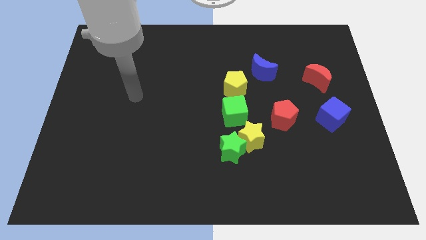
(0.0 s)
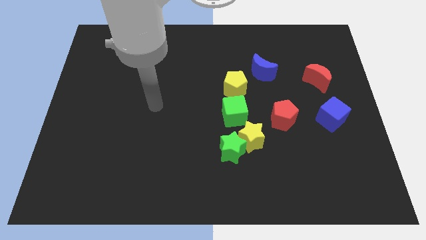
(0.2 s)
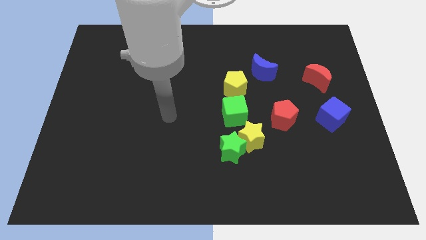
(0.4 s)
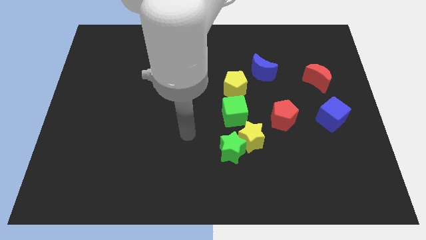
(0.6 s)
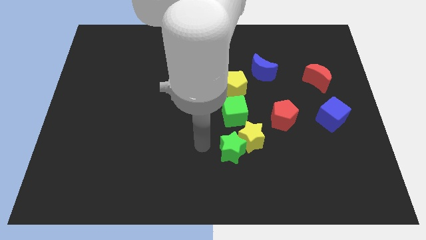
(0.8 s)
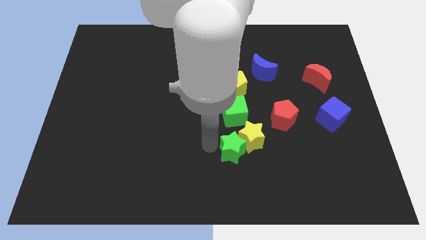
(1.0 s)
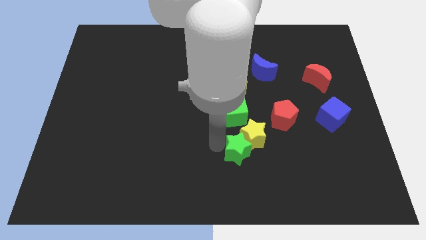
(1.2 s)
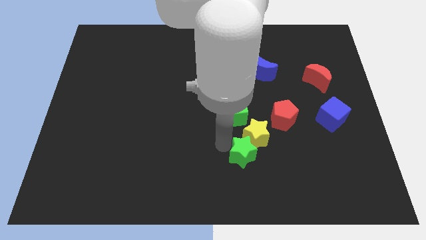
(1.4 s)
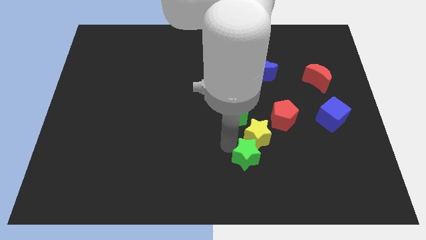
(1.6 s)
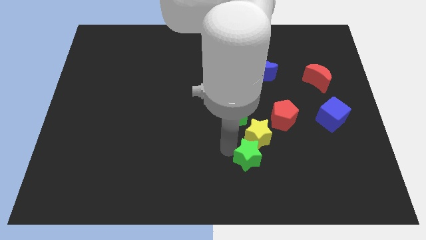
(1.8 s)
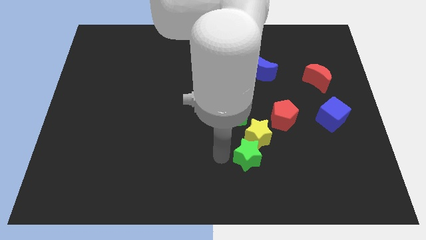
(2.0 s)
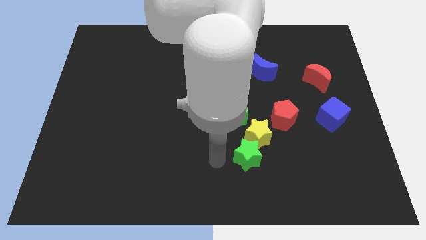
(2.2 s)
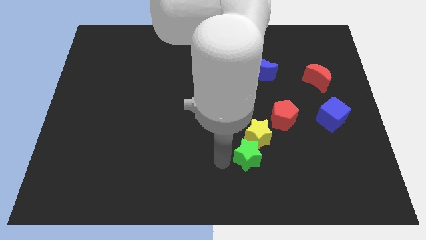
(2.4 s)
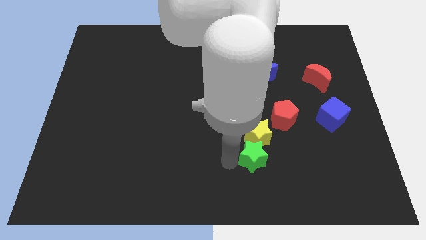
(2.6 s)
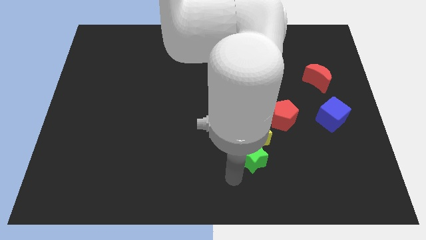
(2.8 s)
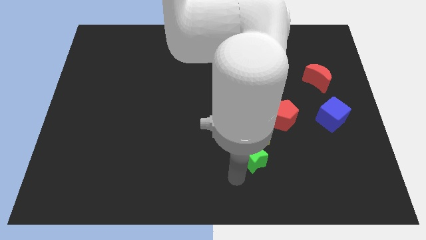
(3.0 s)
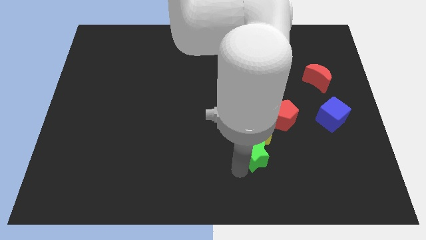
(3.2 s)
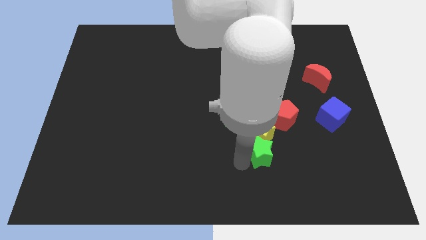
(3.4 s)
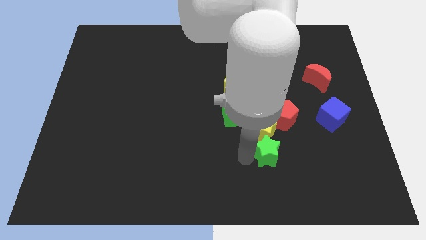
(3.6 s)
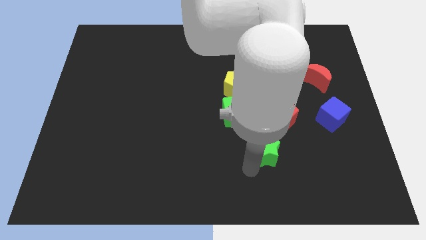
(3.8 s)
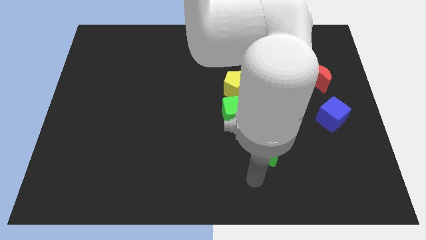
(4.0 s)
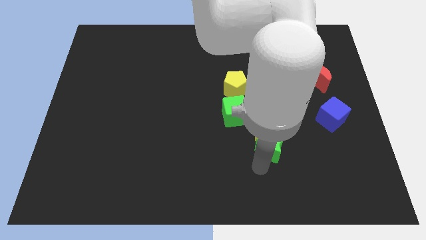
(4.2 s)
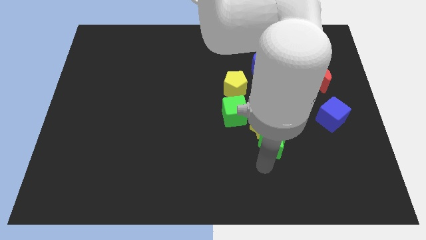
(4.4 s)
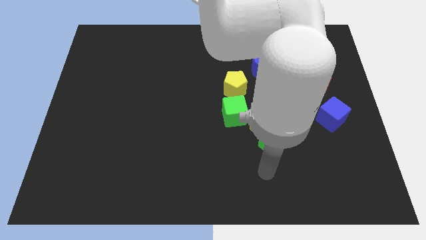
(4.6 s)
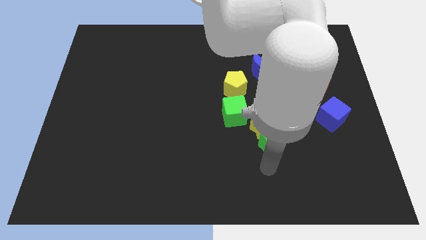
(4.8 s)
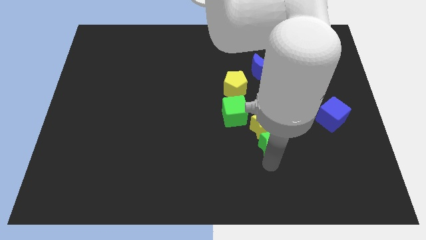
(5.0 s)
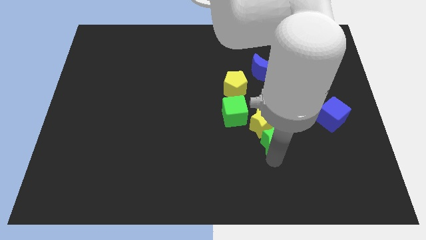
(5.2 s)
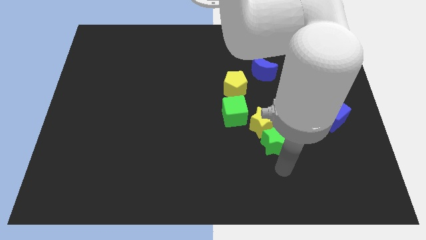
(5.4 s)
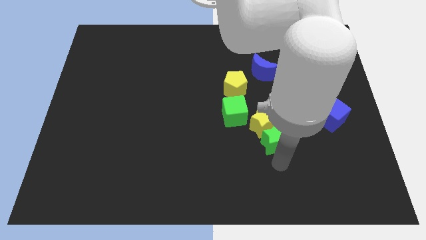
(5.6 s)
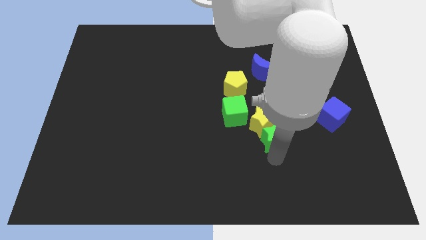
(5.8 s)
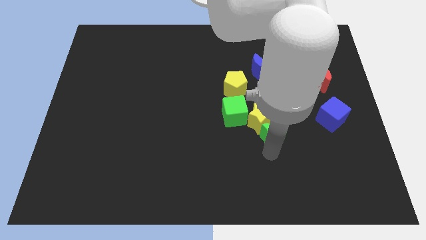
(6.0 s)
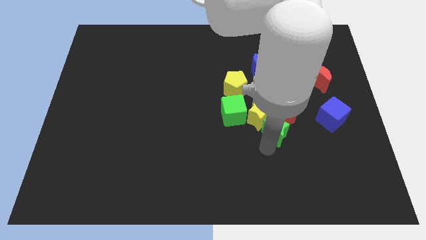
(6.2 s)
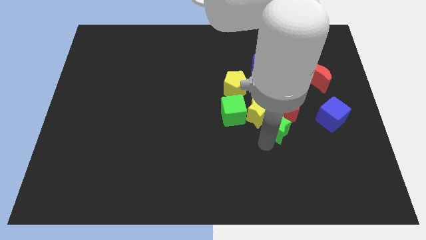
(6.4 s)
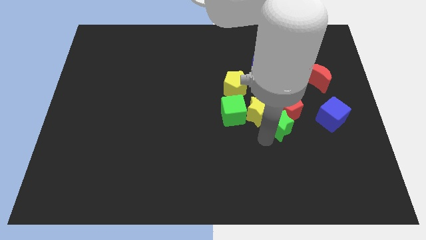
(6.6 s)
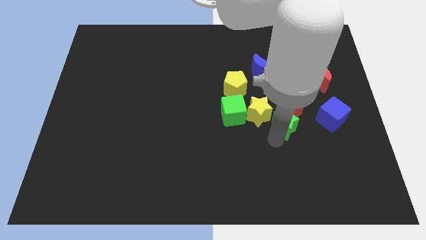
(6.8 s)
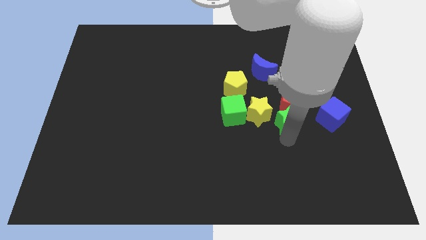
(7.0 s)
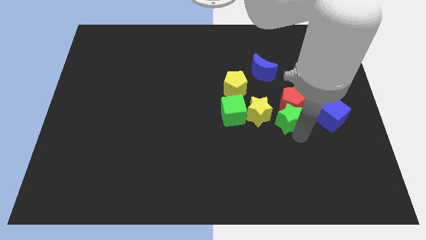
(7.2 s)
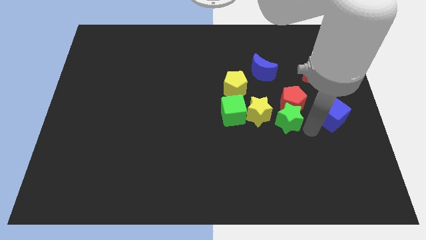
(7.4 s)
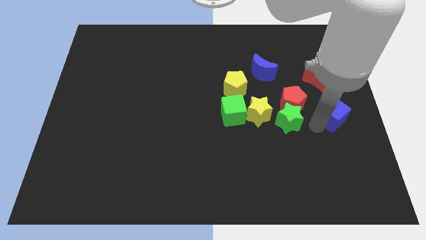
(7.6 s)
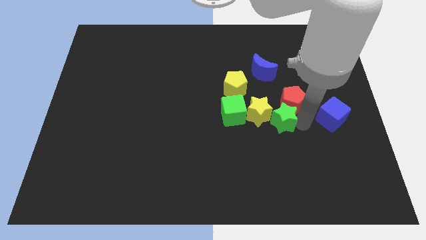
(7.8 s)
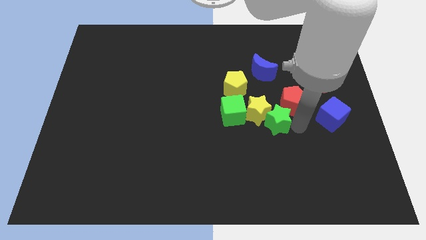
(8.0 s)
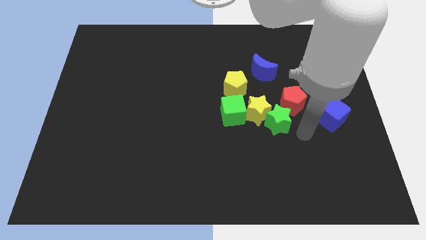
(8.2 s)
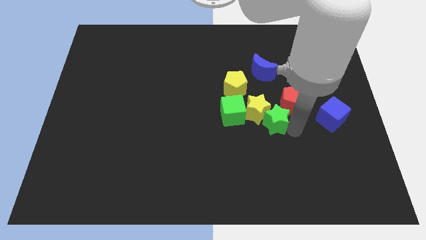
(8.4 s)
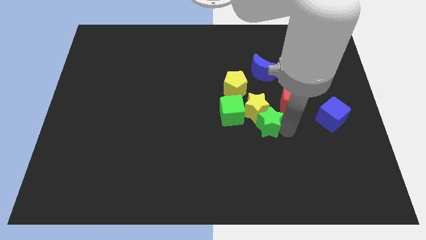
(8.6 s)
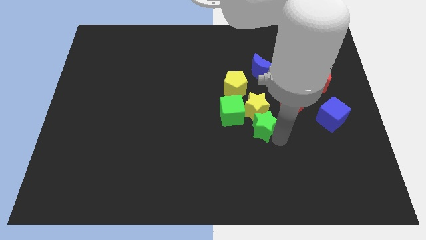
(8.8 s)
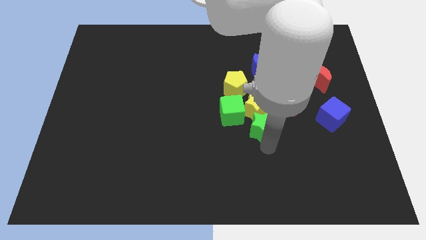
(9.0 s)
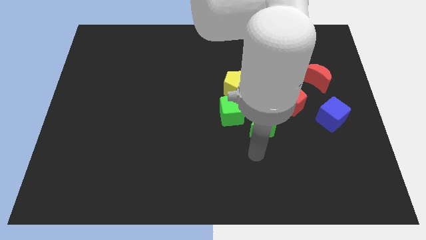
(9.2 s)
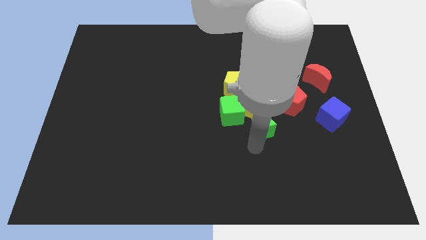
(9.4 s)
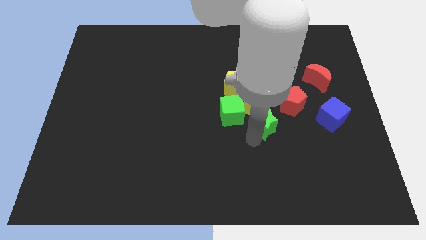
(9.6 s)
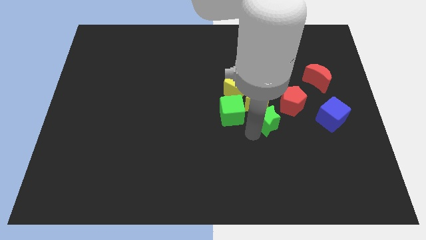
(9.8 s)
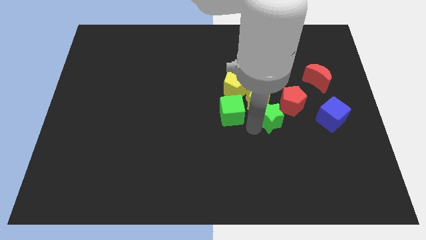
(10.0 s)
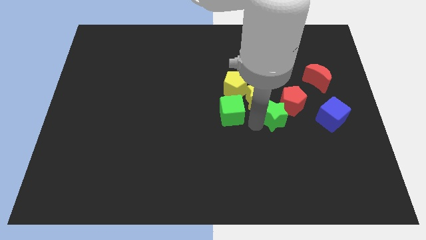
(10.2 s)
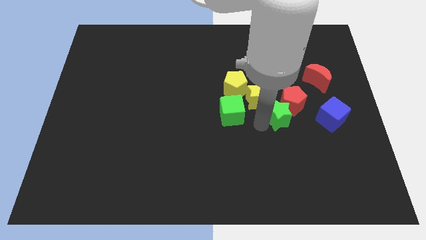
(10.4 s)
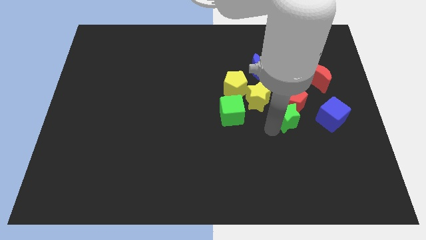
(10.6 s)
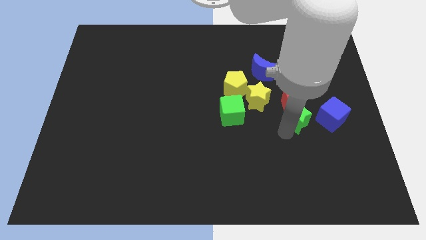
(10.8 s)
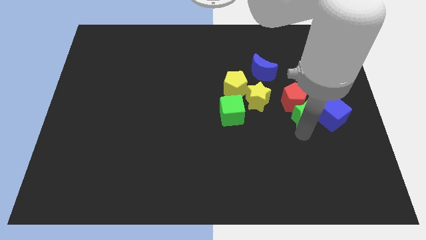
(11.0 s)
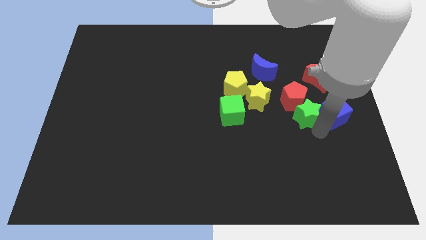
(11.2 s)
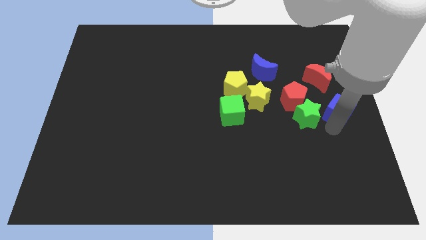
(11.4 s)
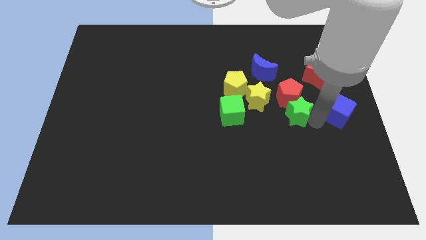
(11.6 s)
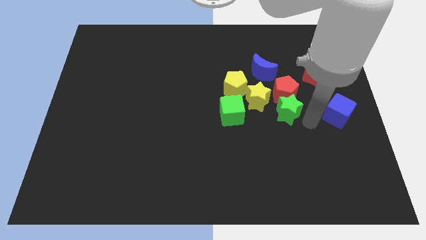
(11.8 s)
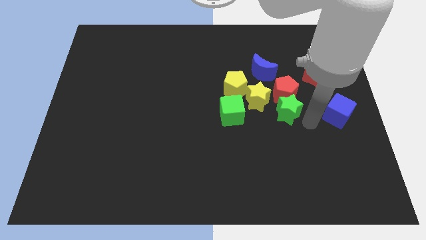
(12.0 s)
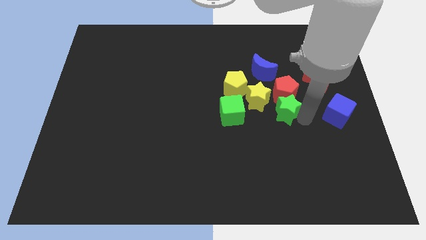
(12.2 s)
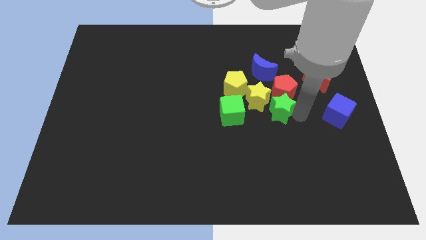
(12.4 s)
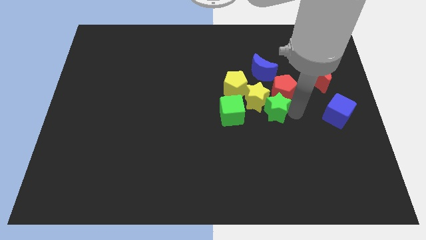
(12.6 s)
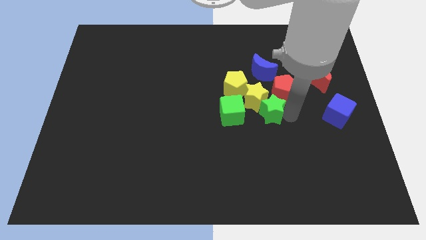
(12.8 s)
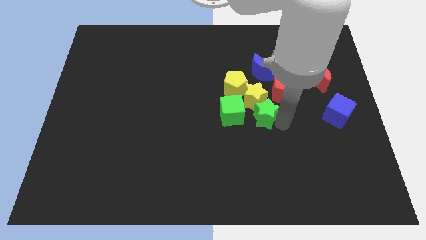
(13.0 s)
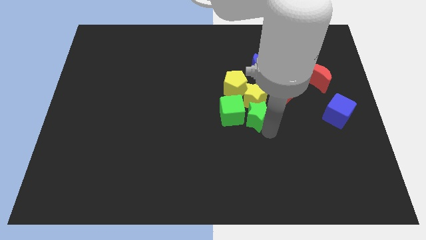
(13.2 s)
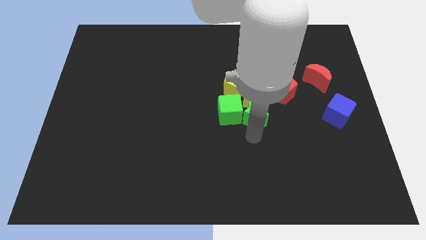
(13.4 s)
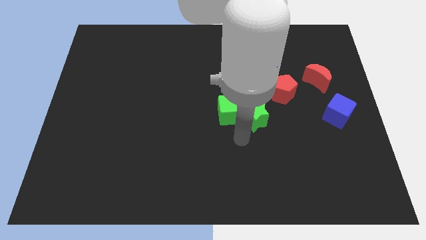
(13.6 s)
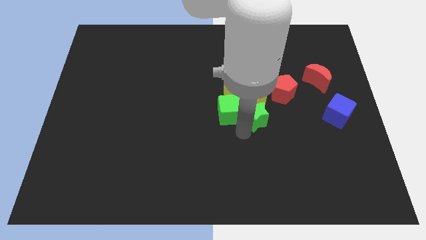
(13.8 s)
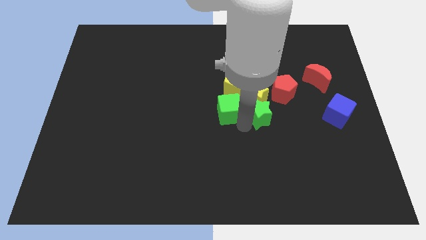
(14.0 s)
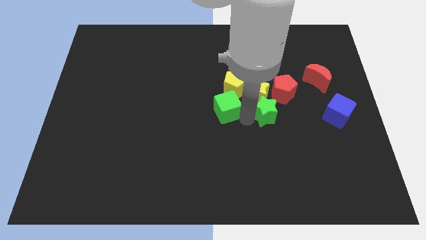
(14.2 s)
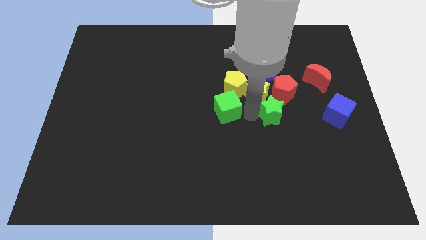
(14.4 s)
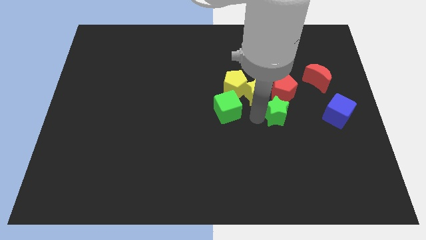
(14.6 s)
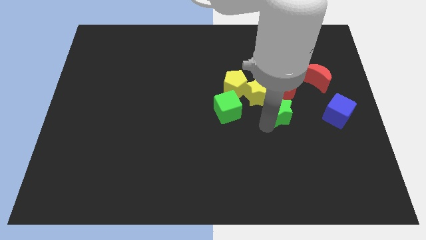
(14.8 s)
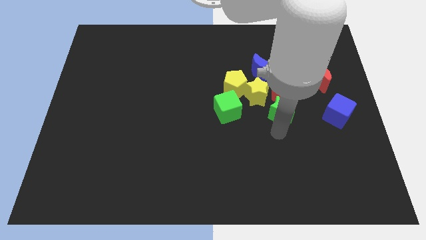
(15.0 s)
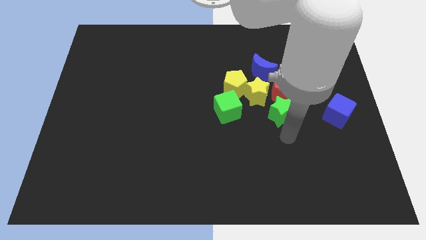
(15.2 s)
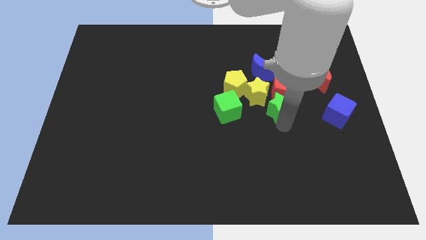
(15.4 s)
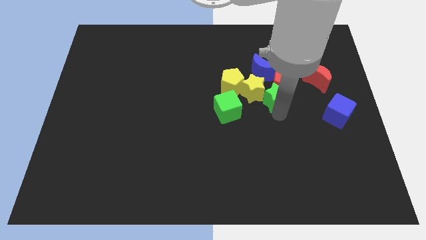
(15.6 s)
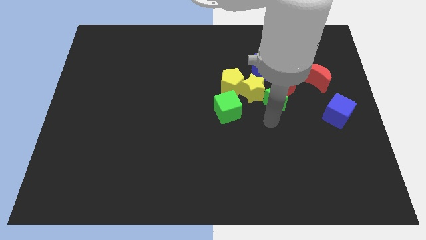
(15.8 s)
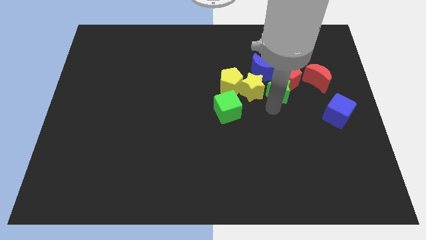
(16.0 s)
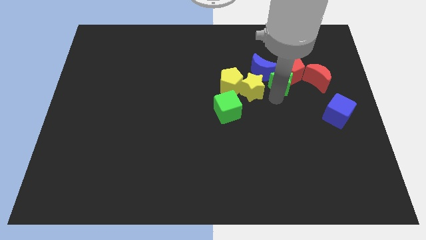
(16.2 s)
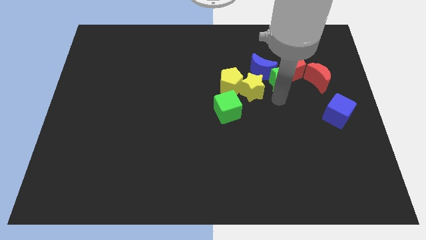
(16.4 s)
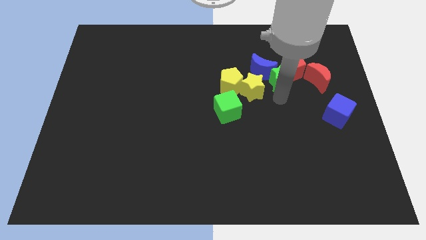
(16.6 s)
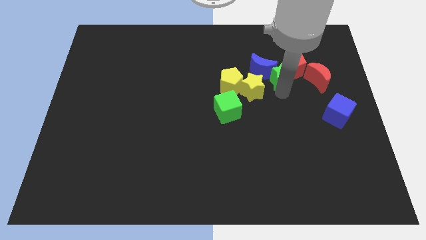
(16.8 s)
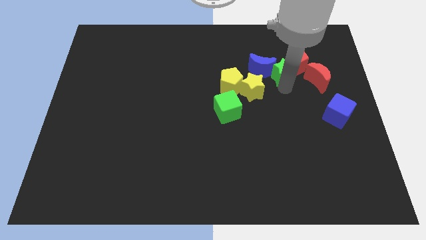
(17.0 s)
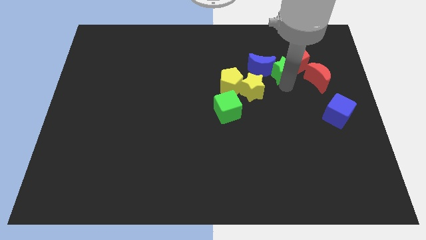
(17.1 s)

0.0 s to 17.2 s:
slide the green star diagonally up and to the right of the blue moon
